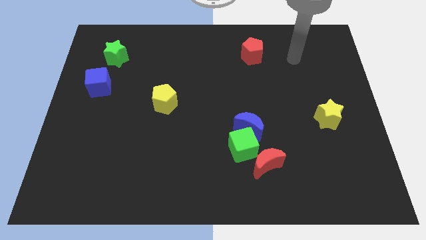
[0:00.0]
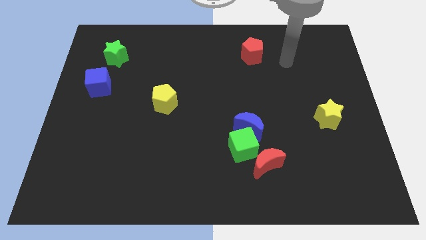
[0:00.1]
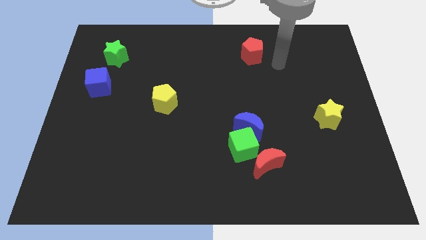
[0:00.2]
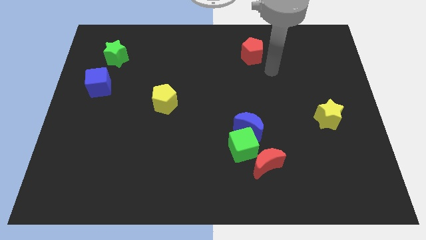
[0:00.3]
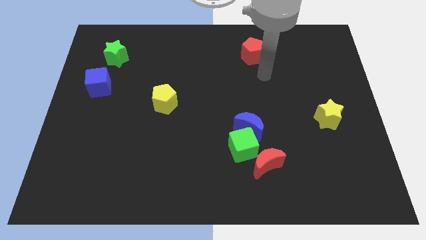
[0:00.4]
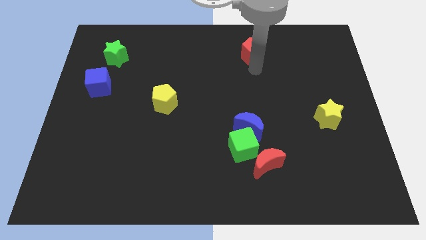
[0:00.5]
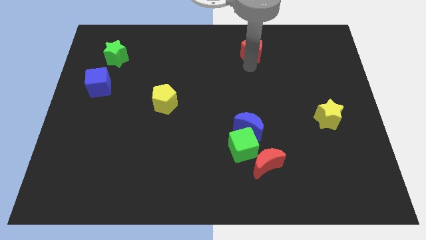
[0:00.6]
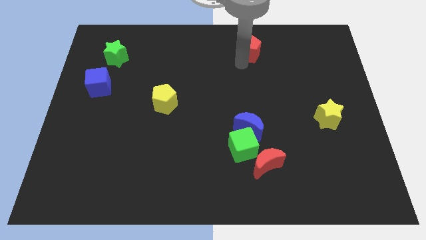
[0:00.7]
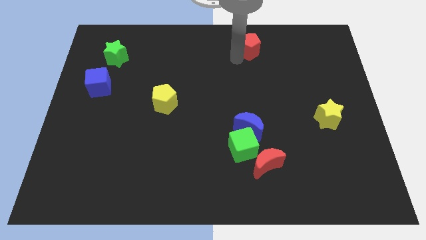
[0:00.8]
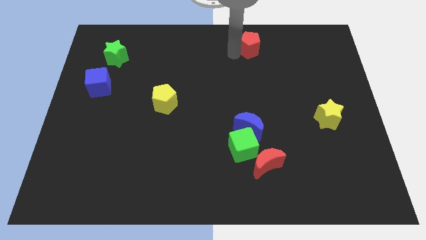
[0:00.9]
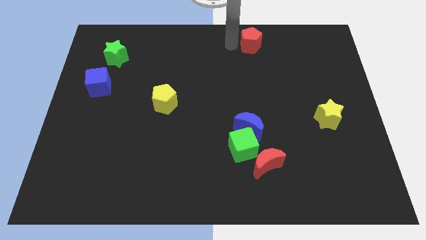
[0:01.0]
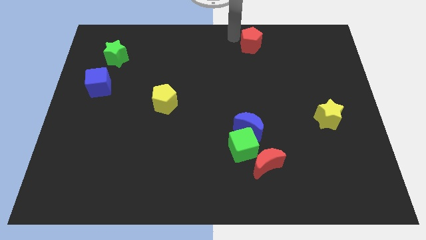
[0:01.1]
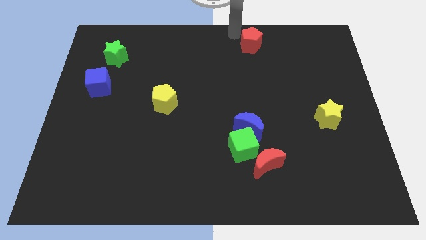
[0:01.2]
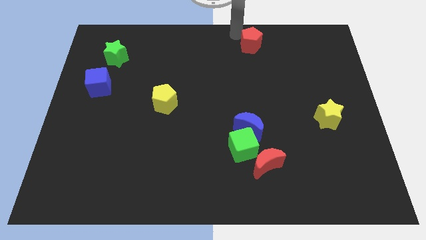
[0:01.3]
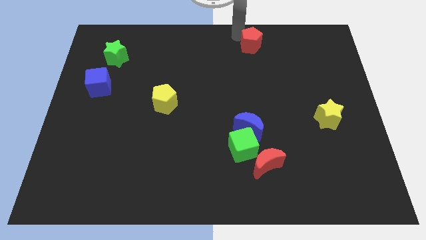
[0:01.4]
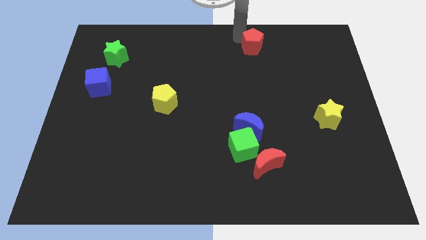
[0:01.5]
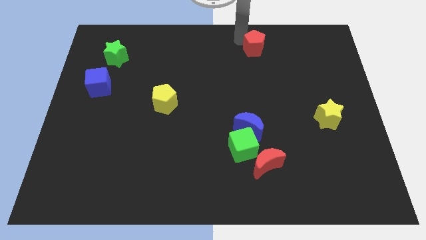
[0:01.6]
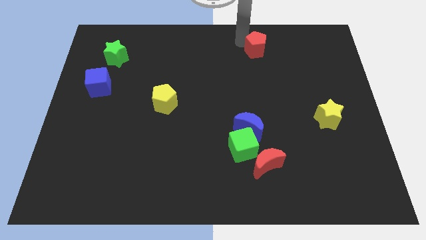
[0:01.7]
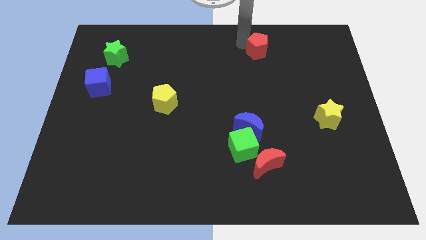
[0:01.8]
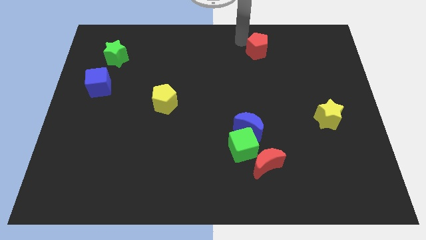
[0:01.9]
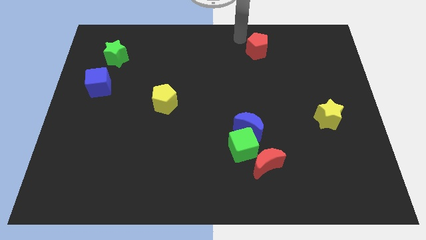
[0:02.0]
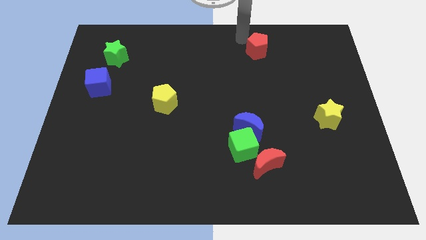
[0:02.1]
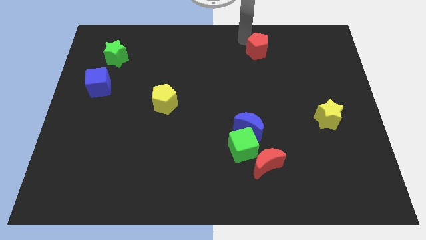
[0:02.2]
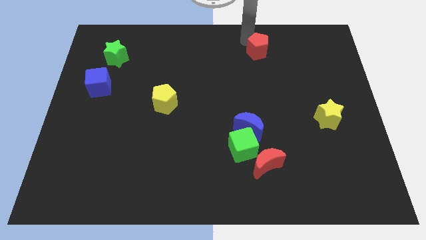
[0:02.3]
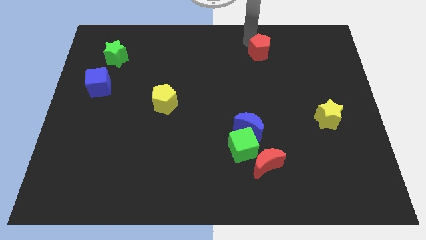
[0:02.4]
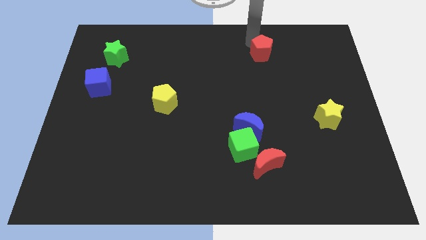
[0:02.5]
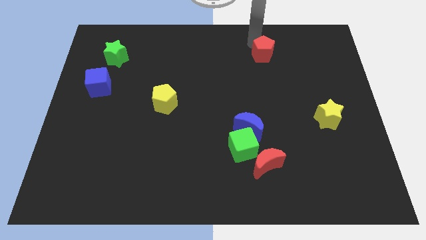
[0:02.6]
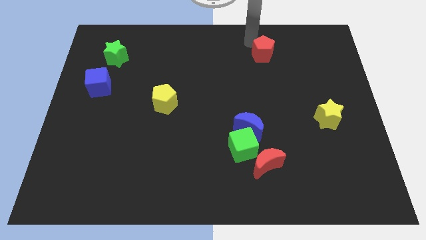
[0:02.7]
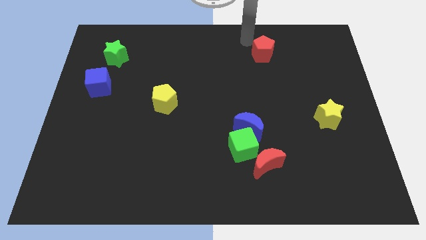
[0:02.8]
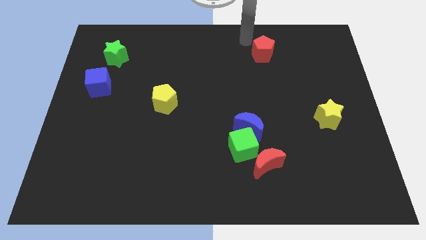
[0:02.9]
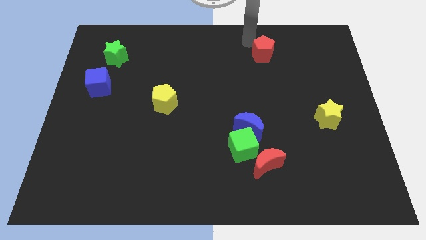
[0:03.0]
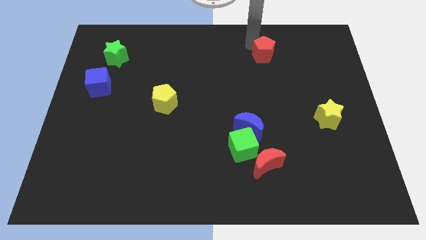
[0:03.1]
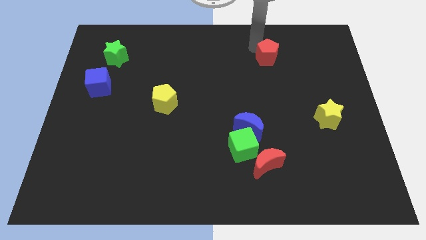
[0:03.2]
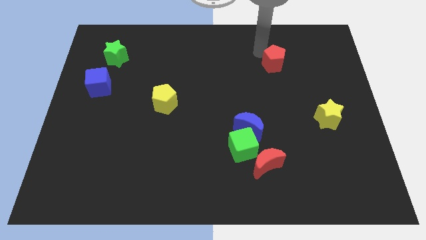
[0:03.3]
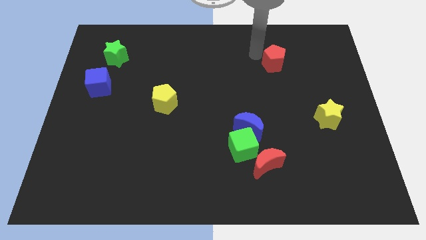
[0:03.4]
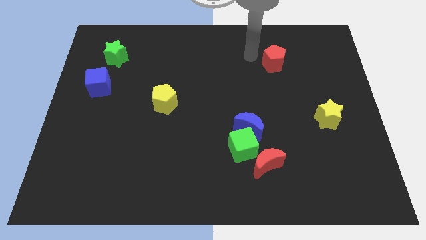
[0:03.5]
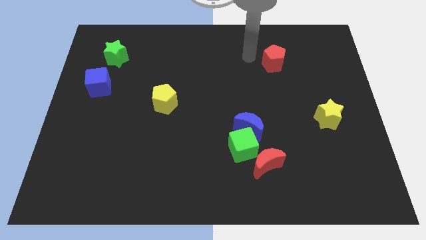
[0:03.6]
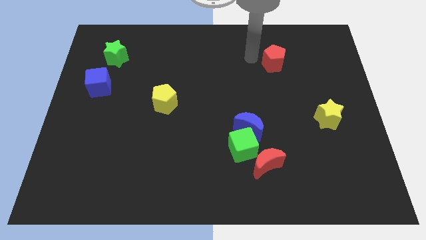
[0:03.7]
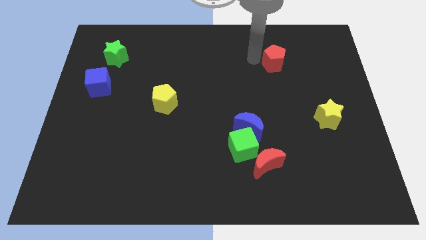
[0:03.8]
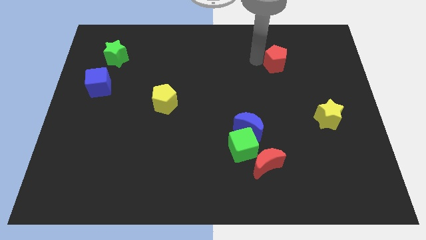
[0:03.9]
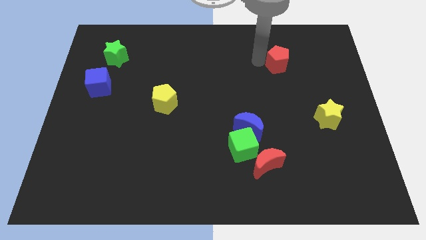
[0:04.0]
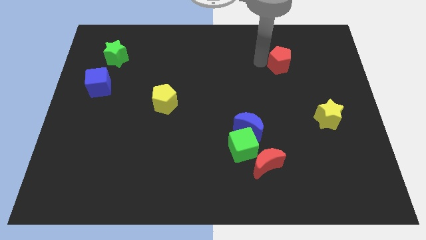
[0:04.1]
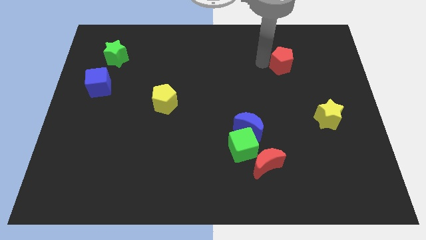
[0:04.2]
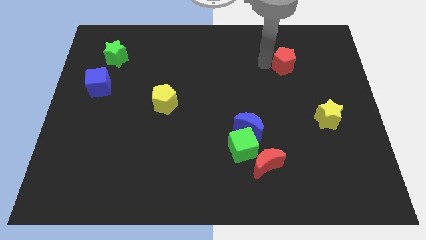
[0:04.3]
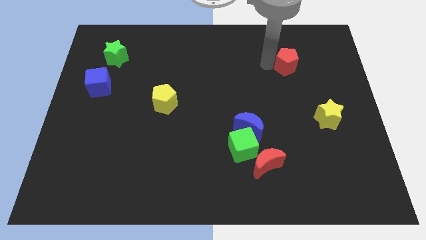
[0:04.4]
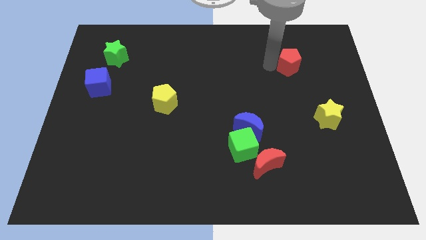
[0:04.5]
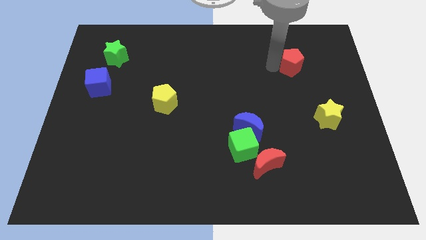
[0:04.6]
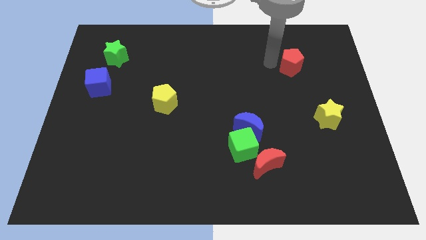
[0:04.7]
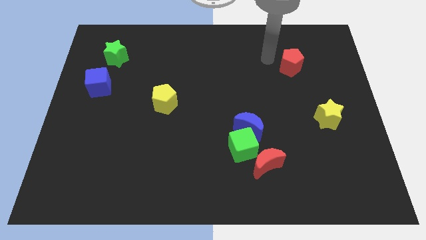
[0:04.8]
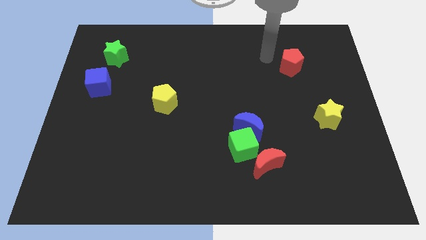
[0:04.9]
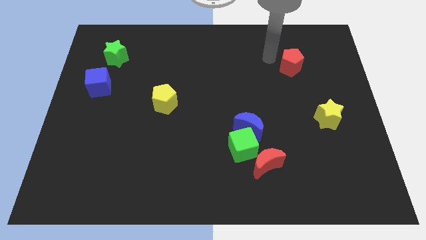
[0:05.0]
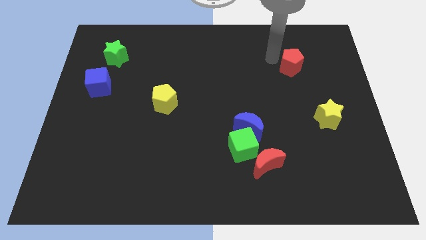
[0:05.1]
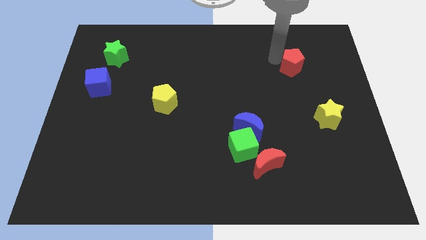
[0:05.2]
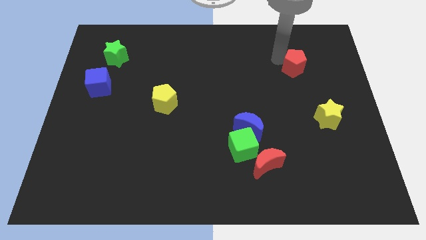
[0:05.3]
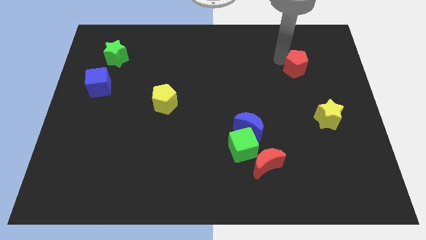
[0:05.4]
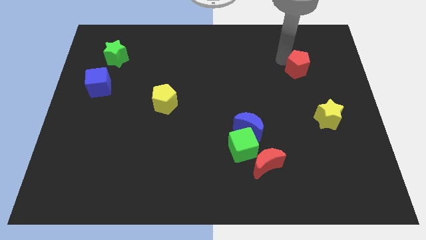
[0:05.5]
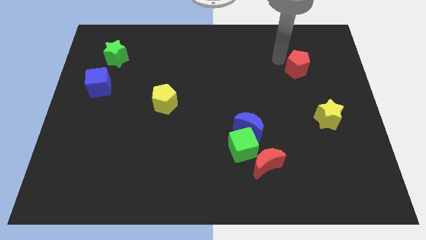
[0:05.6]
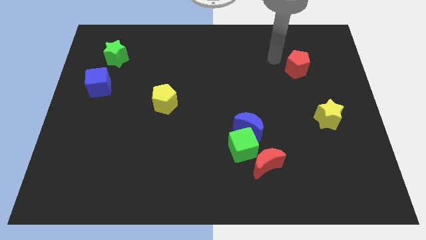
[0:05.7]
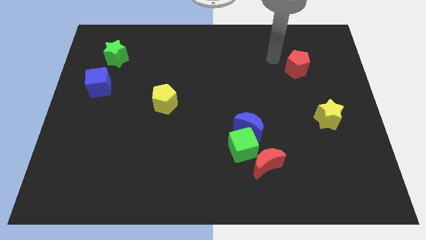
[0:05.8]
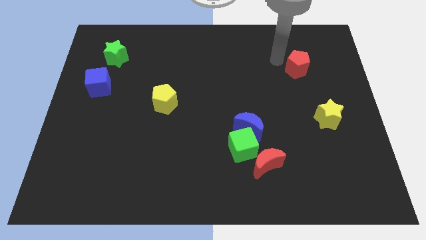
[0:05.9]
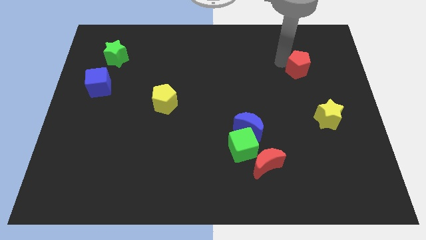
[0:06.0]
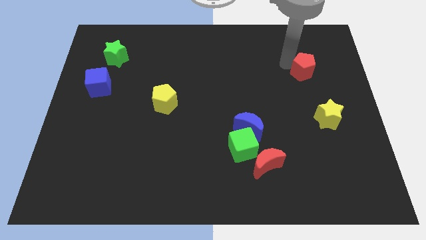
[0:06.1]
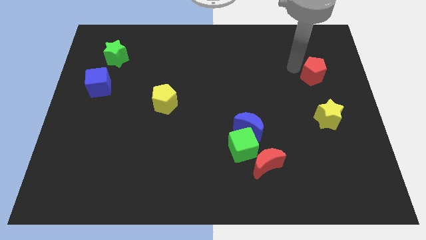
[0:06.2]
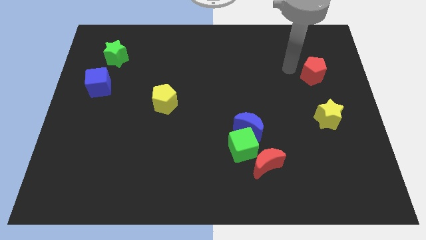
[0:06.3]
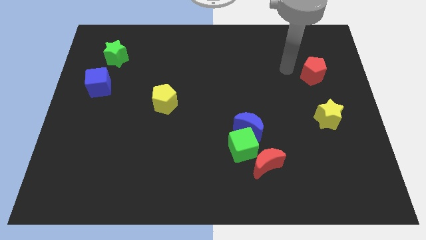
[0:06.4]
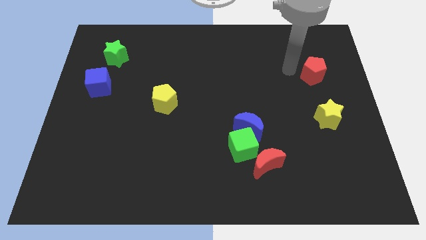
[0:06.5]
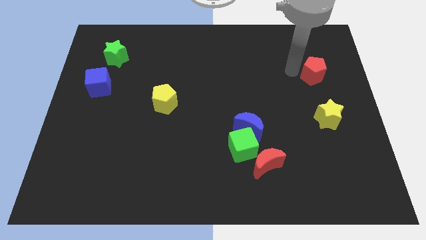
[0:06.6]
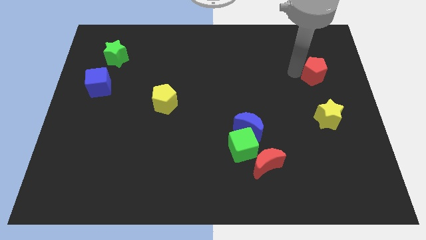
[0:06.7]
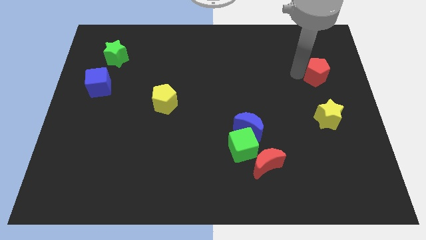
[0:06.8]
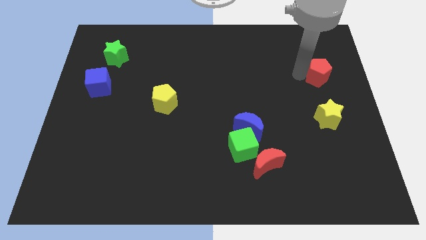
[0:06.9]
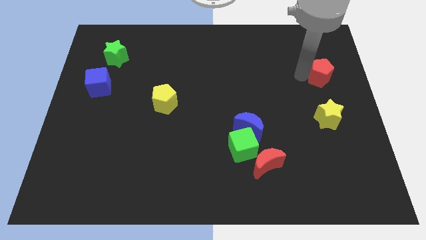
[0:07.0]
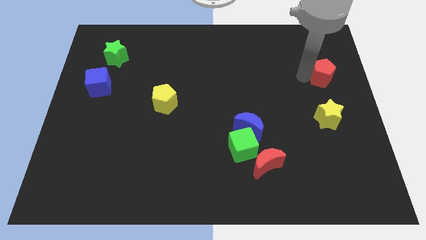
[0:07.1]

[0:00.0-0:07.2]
put the red pentagon to the center right
